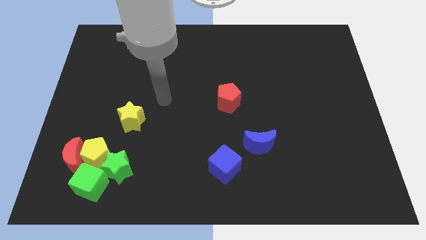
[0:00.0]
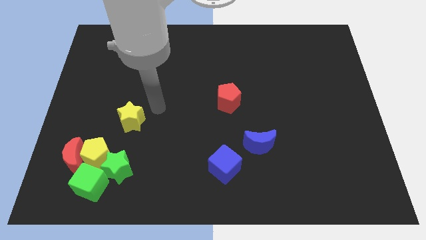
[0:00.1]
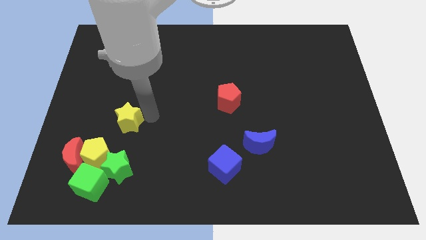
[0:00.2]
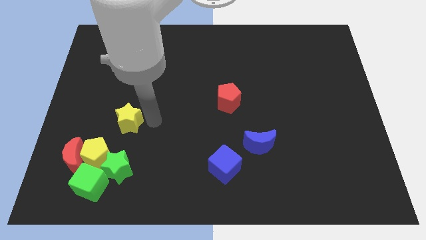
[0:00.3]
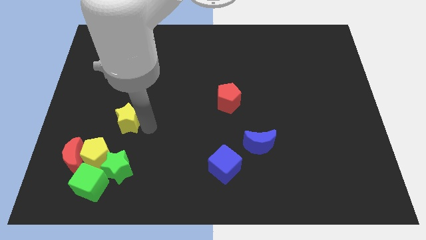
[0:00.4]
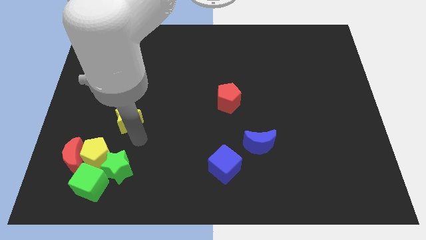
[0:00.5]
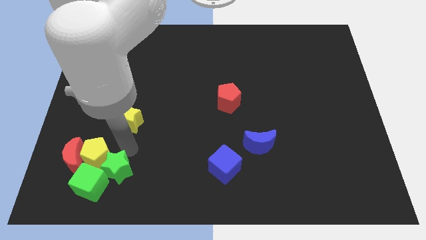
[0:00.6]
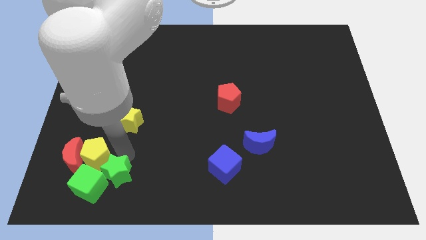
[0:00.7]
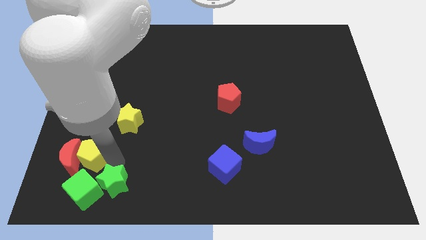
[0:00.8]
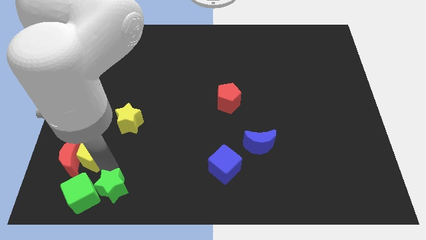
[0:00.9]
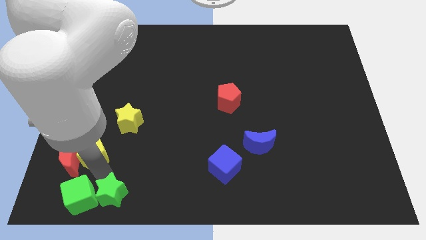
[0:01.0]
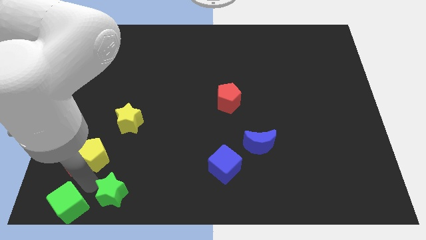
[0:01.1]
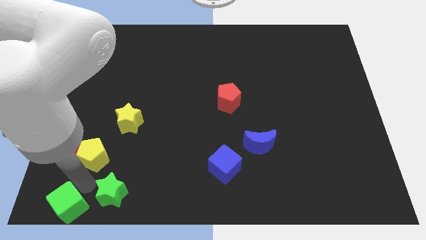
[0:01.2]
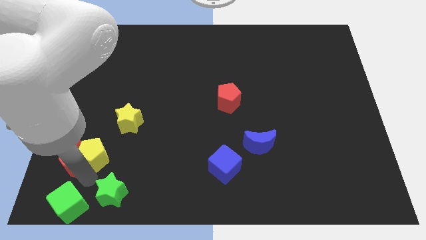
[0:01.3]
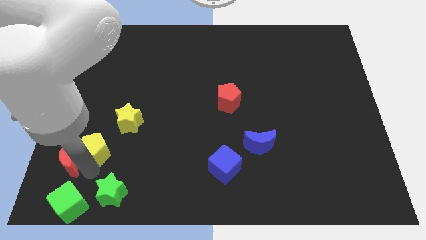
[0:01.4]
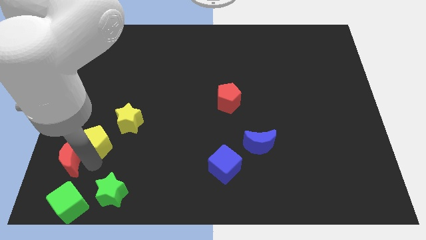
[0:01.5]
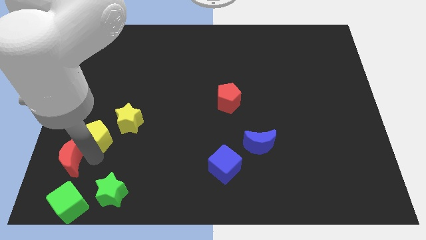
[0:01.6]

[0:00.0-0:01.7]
move the yellow pentagon away from the red moon, green star, and green cube

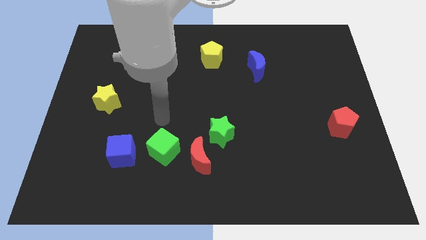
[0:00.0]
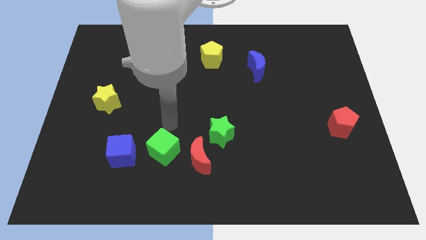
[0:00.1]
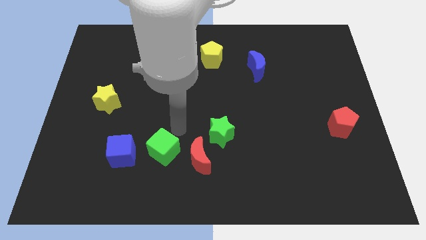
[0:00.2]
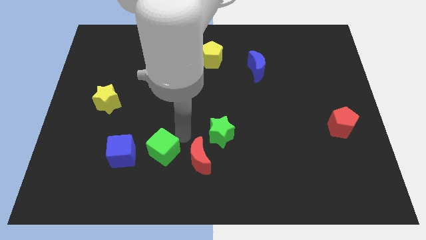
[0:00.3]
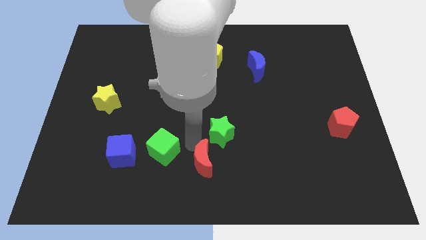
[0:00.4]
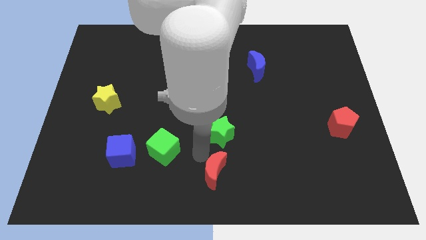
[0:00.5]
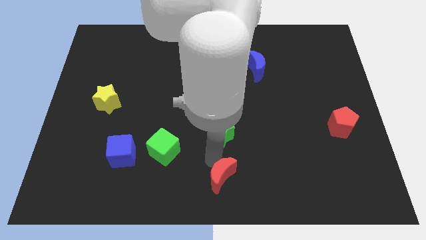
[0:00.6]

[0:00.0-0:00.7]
separate the green star from the red moon

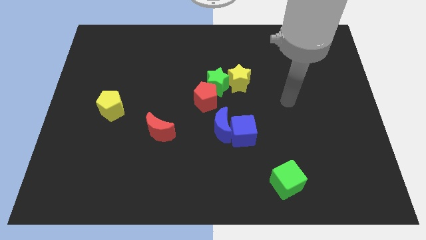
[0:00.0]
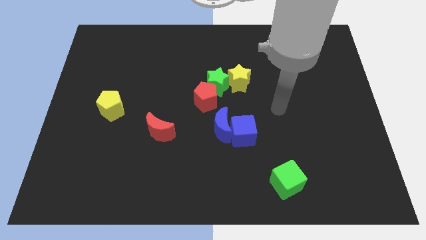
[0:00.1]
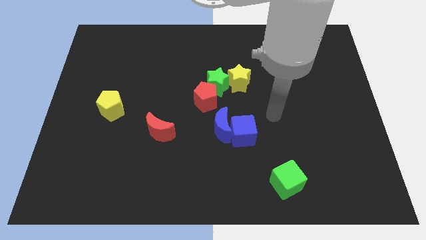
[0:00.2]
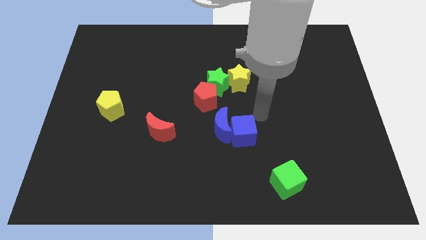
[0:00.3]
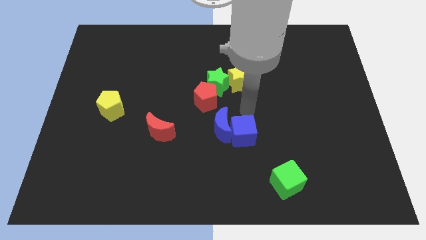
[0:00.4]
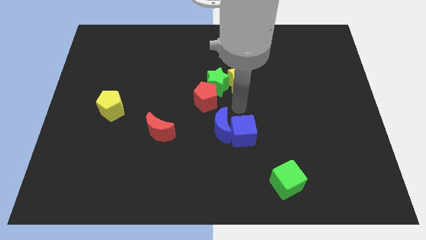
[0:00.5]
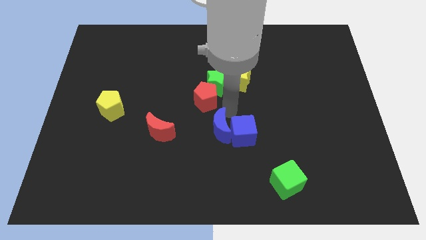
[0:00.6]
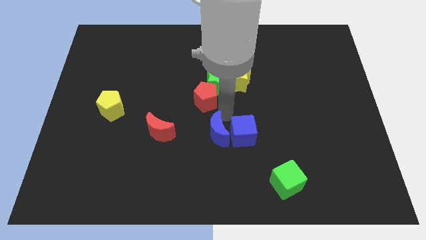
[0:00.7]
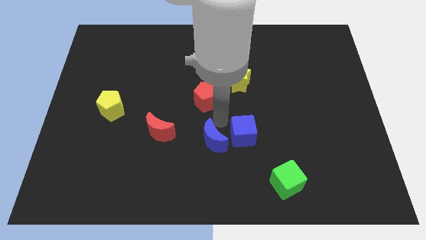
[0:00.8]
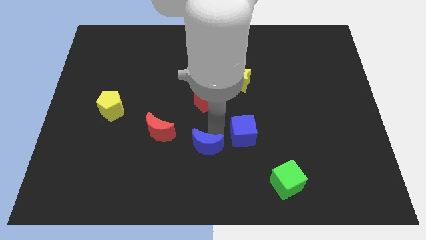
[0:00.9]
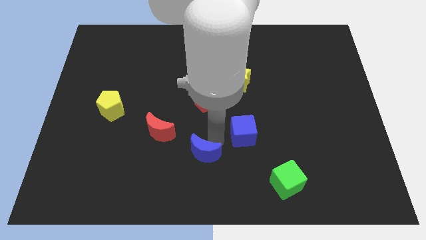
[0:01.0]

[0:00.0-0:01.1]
separate the blue cube from the blue moon

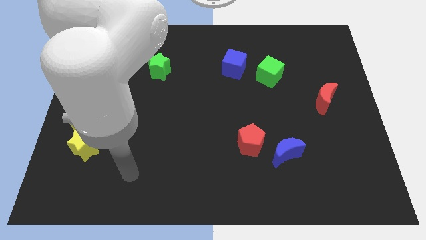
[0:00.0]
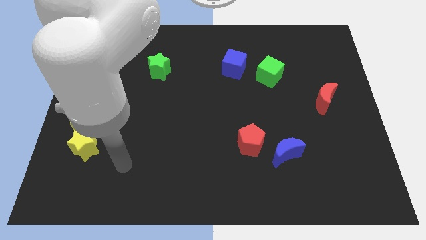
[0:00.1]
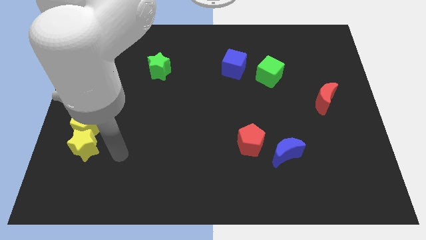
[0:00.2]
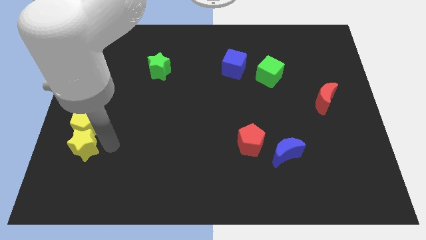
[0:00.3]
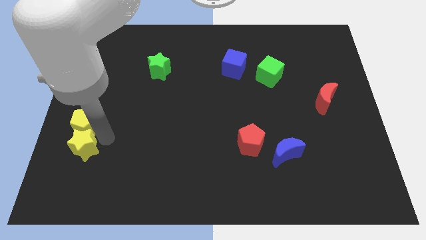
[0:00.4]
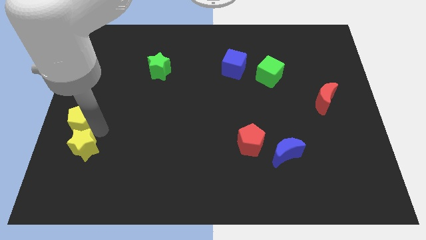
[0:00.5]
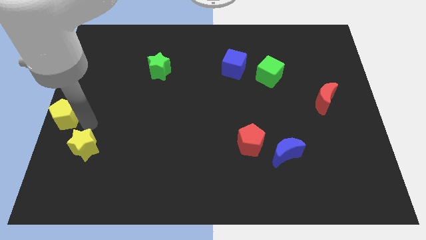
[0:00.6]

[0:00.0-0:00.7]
move the yellow star away from the yellow pentagon

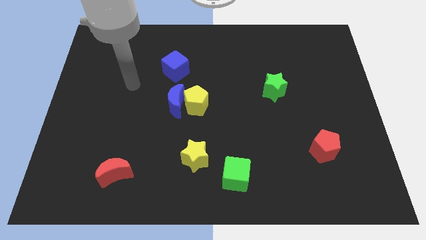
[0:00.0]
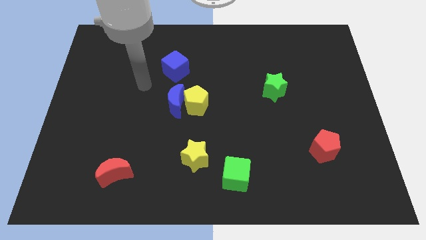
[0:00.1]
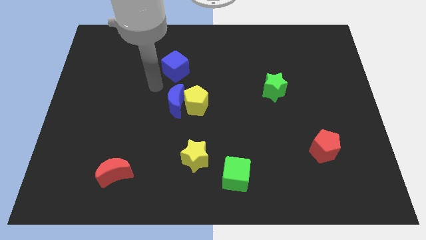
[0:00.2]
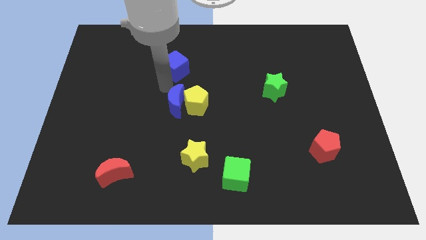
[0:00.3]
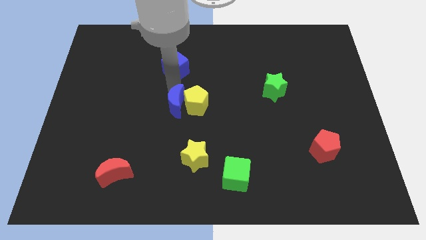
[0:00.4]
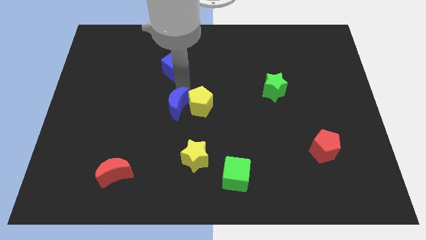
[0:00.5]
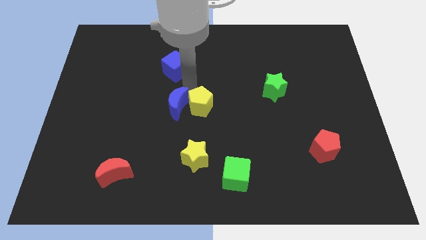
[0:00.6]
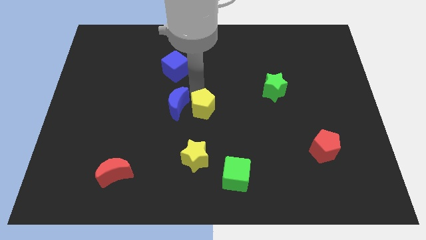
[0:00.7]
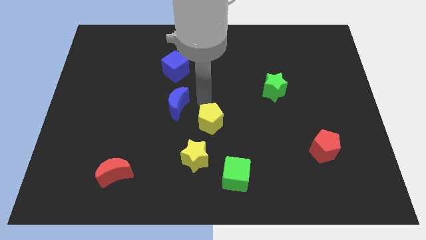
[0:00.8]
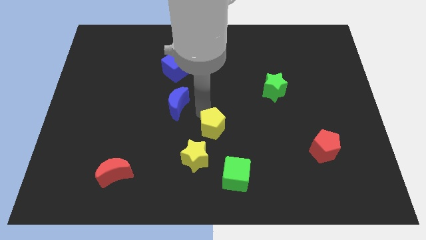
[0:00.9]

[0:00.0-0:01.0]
pull the blue moon apart from the yellow pentagon

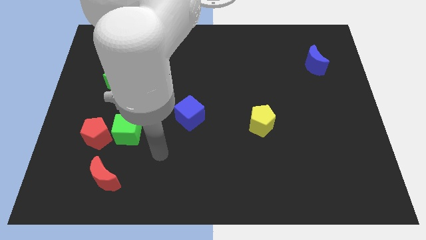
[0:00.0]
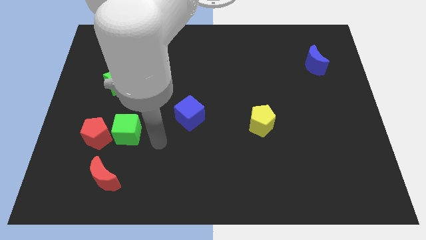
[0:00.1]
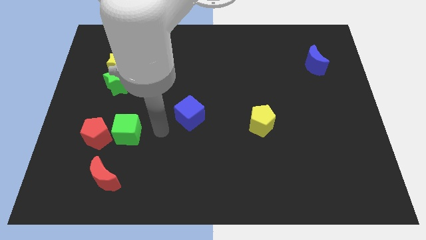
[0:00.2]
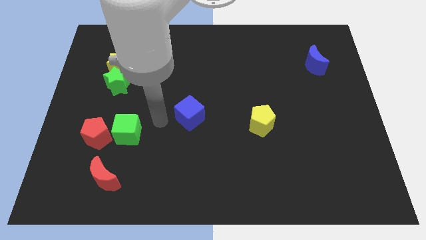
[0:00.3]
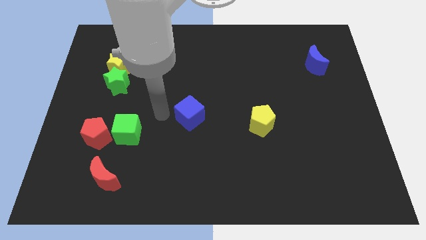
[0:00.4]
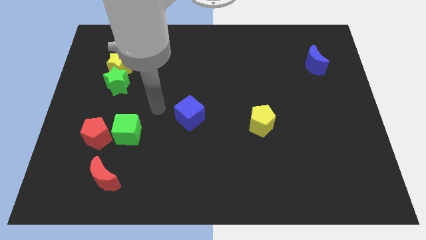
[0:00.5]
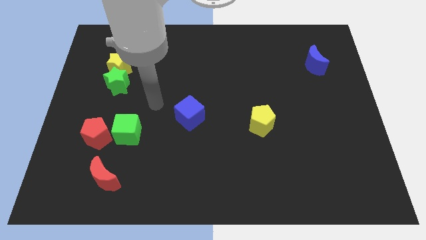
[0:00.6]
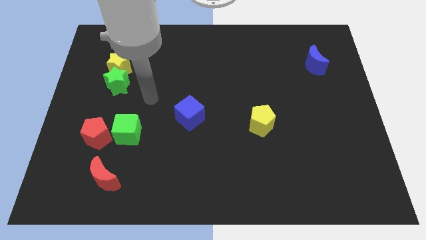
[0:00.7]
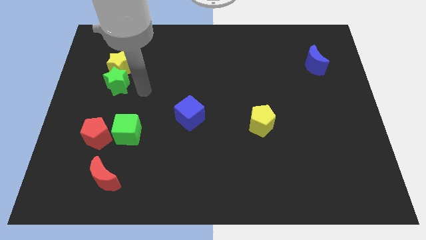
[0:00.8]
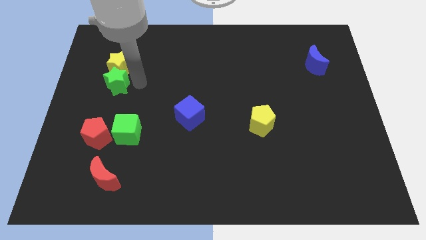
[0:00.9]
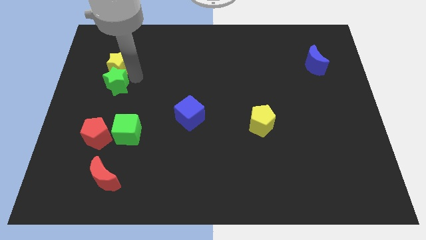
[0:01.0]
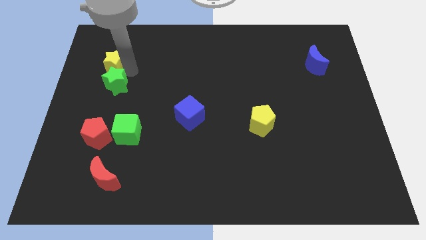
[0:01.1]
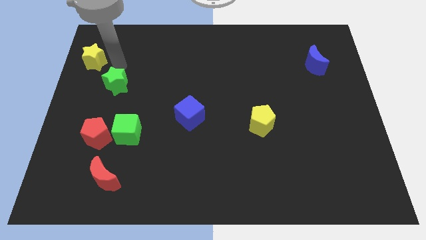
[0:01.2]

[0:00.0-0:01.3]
separate the green star from the yellow star

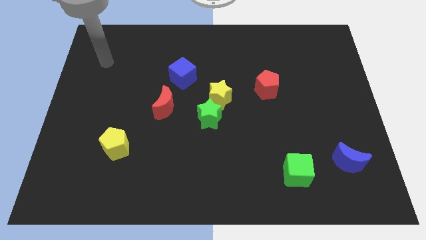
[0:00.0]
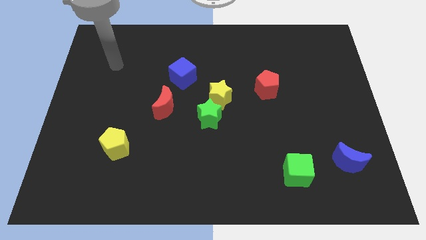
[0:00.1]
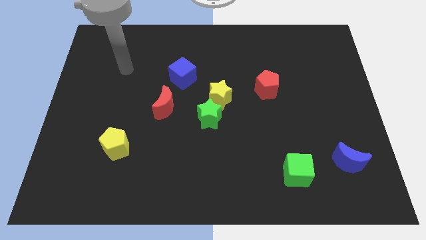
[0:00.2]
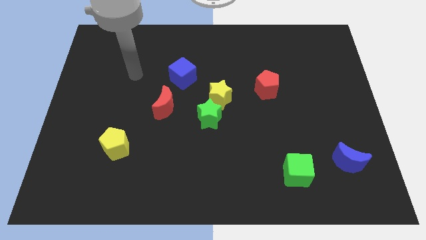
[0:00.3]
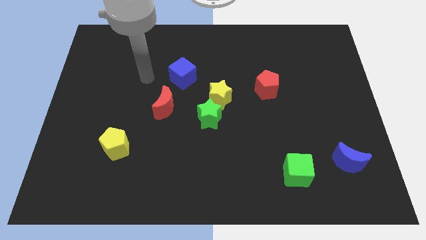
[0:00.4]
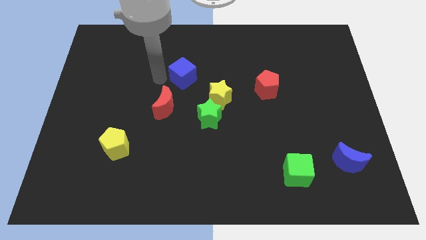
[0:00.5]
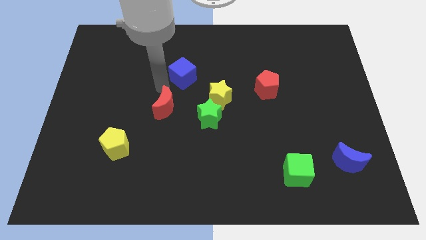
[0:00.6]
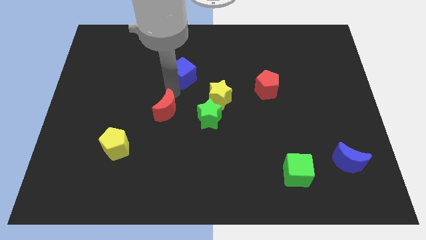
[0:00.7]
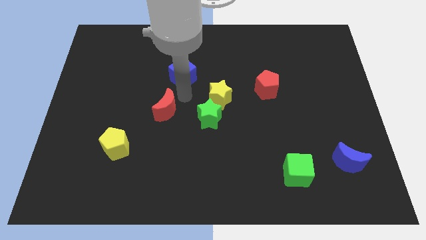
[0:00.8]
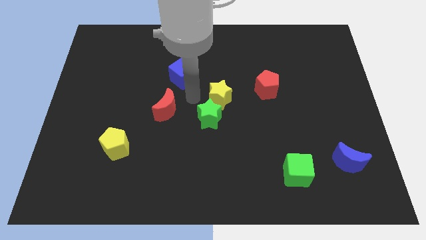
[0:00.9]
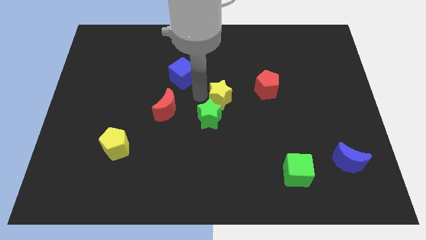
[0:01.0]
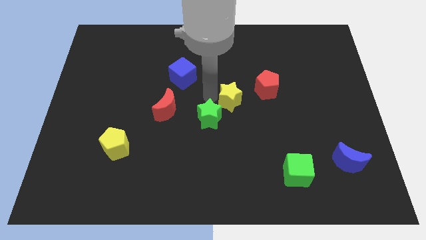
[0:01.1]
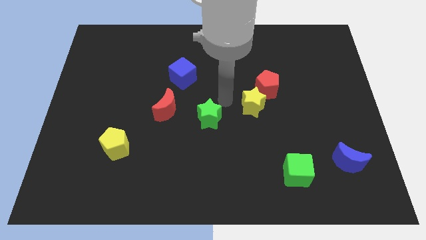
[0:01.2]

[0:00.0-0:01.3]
pull the green star apart from the yellow star

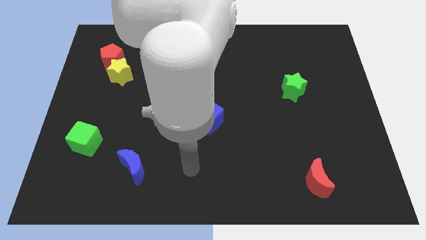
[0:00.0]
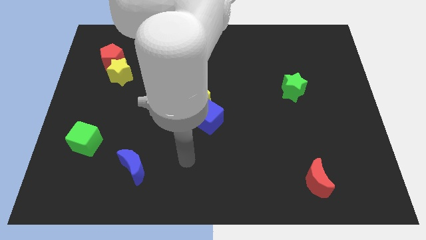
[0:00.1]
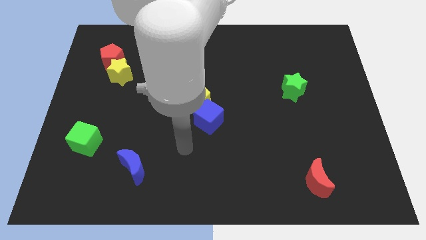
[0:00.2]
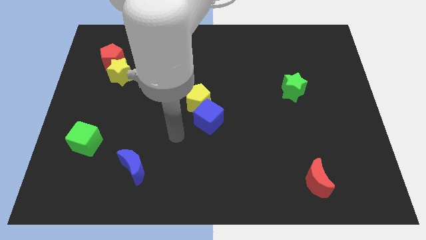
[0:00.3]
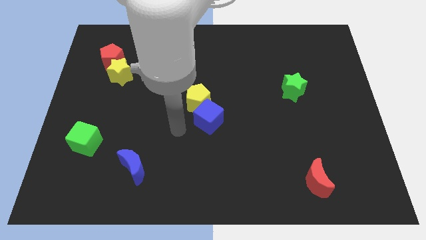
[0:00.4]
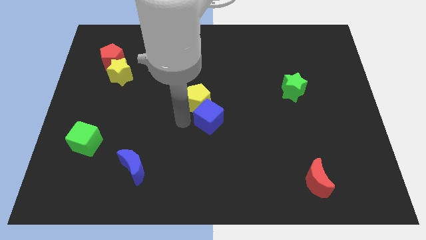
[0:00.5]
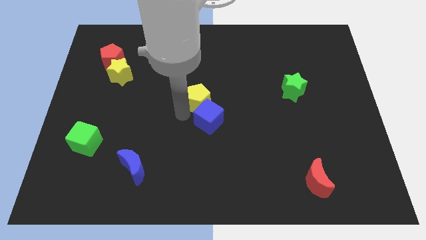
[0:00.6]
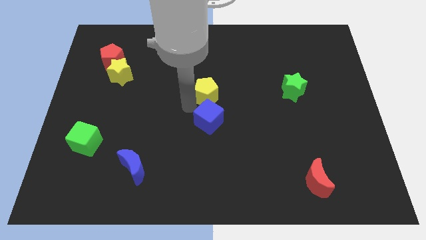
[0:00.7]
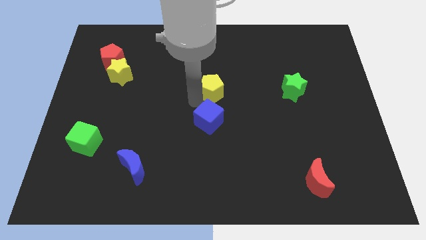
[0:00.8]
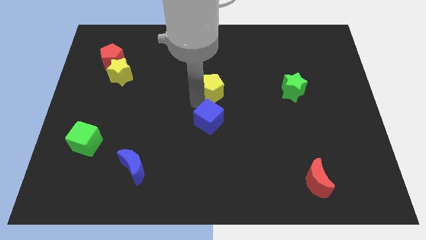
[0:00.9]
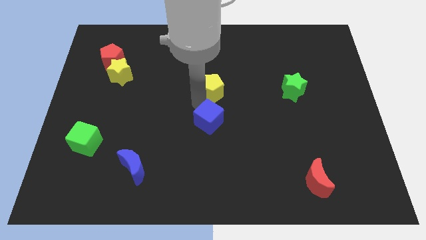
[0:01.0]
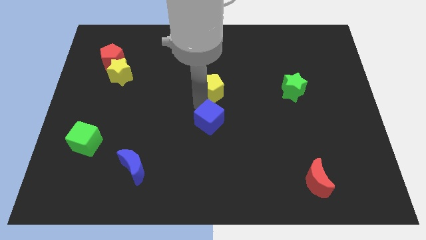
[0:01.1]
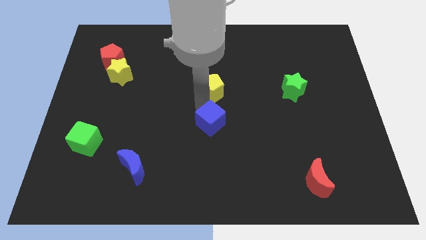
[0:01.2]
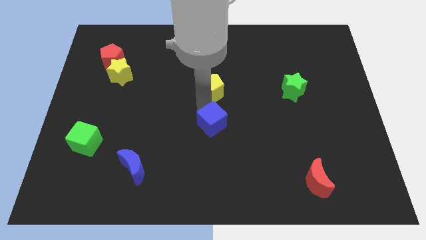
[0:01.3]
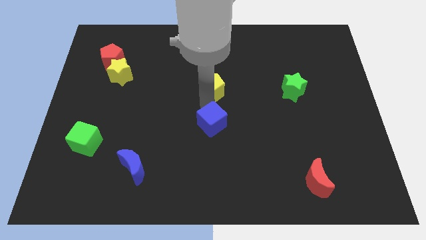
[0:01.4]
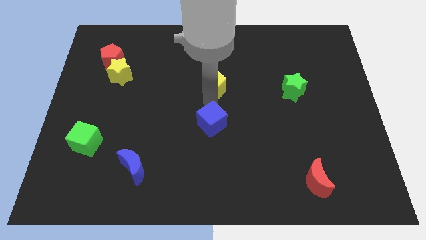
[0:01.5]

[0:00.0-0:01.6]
move the blue cube away from the yellow pentagon
